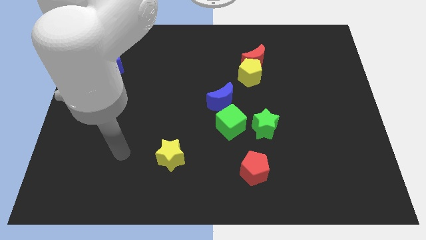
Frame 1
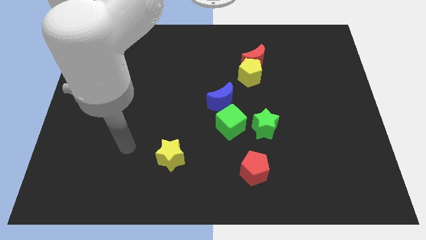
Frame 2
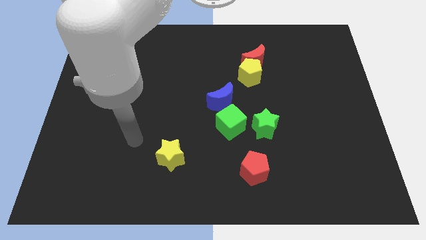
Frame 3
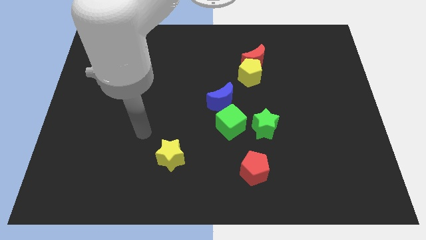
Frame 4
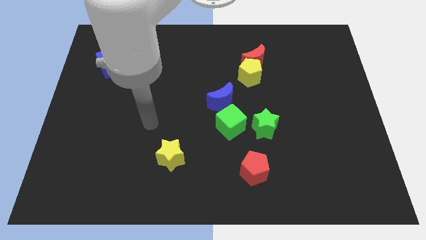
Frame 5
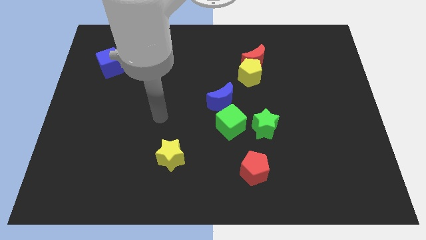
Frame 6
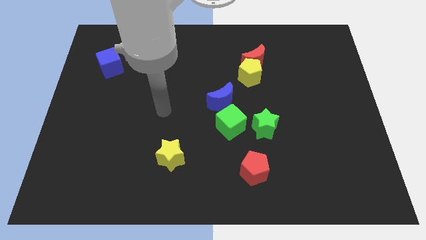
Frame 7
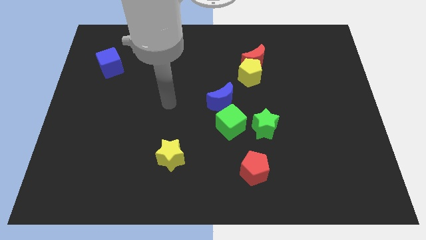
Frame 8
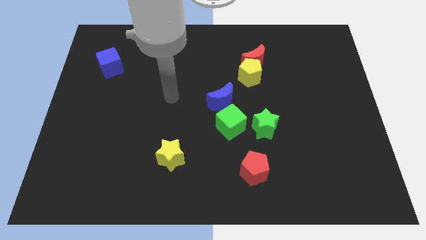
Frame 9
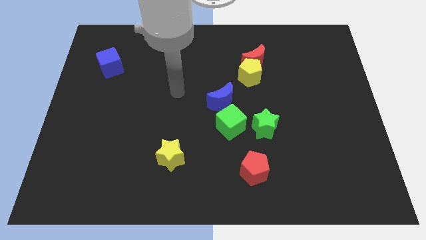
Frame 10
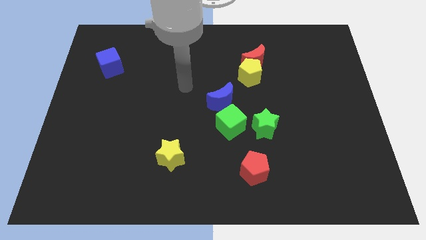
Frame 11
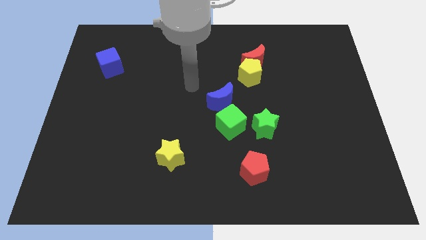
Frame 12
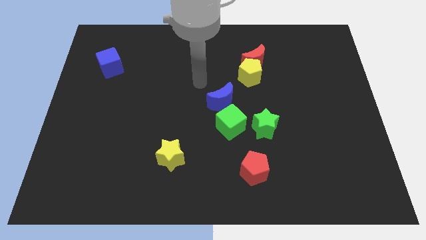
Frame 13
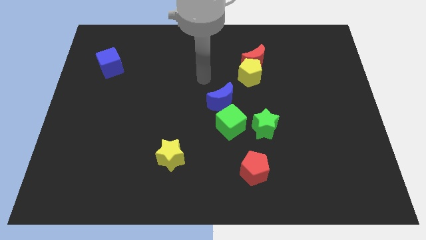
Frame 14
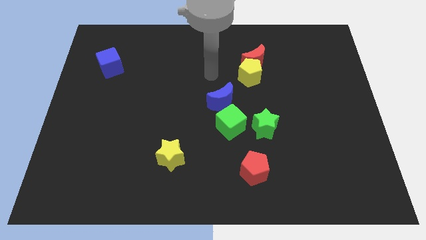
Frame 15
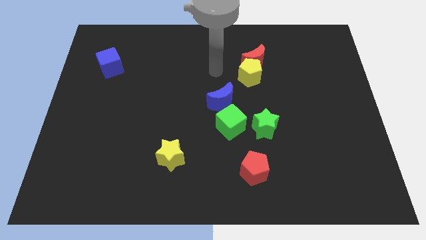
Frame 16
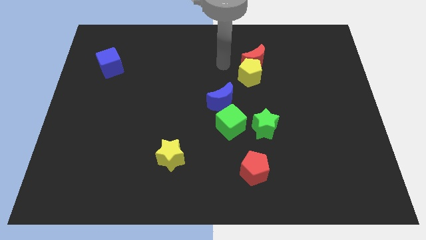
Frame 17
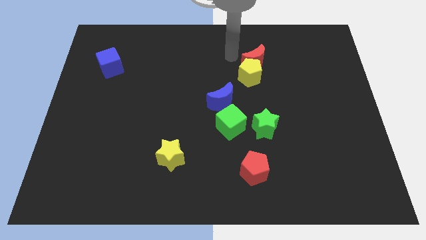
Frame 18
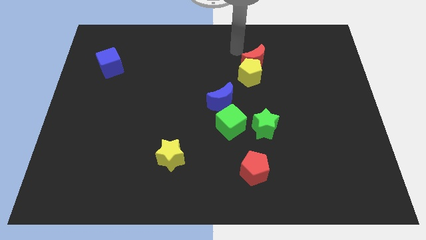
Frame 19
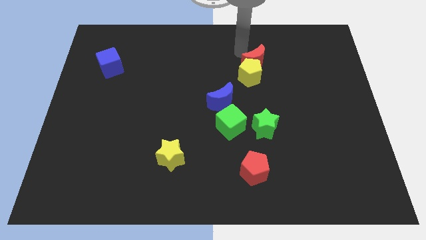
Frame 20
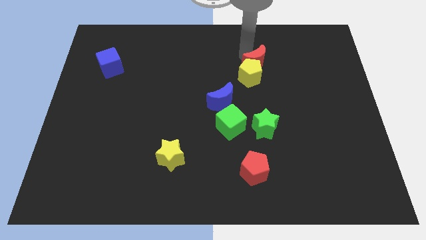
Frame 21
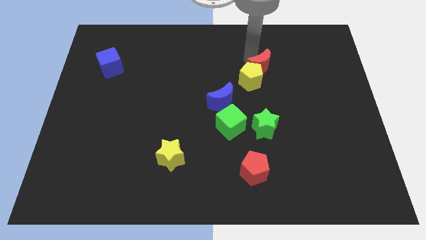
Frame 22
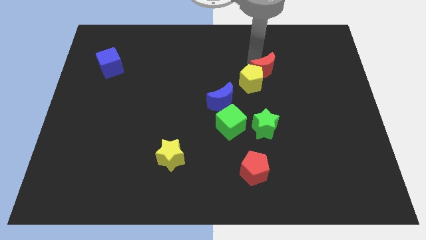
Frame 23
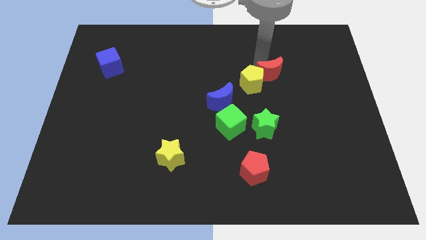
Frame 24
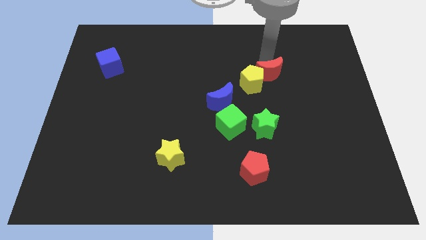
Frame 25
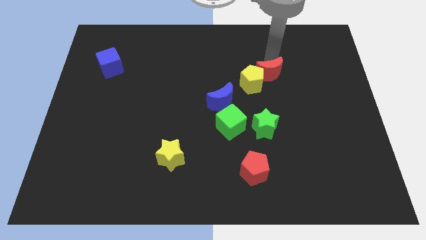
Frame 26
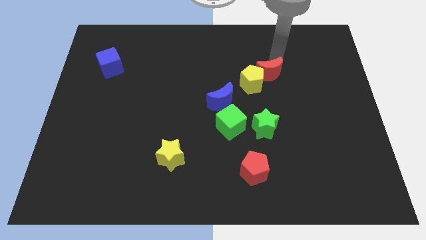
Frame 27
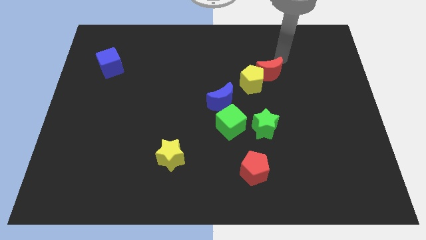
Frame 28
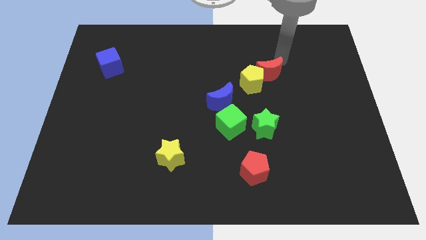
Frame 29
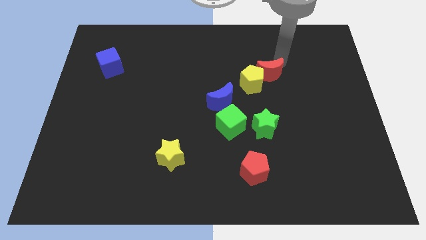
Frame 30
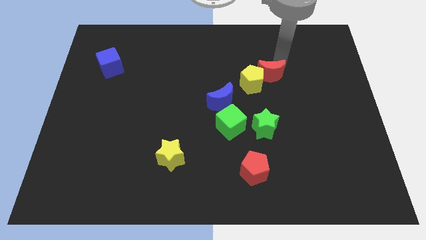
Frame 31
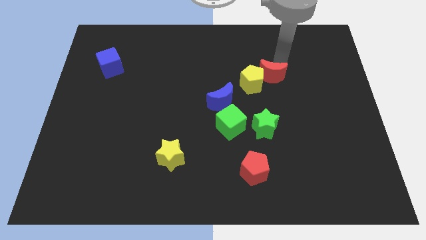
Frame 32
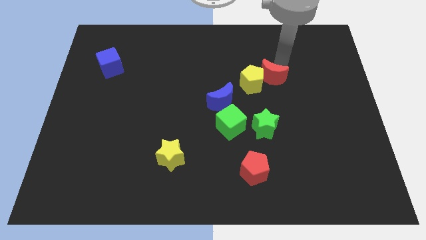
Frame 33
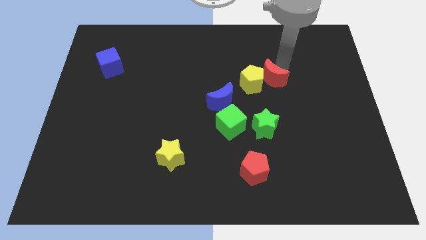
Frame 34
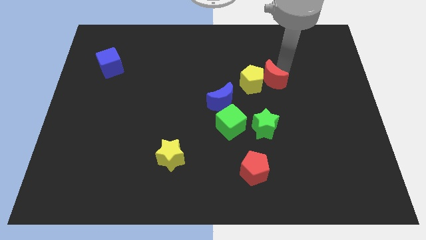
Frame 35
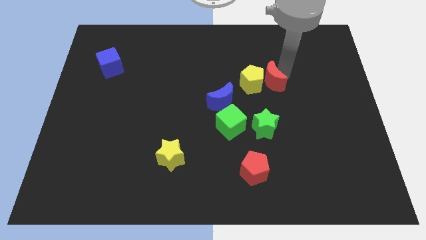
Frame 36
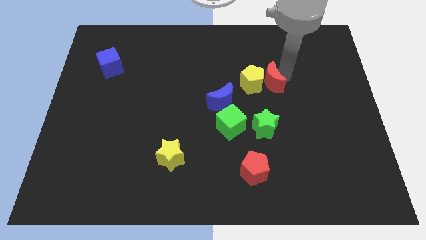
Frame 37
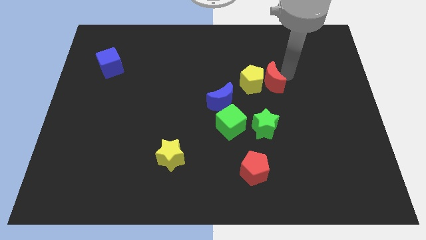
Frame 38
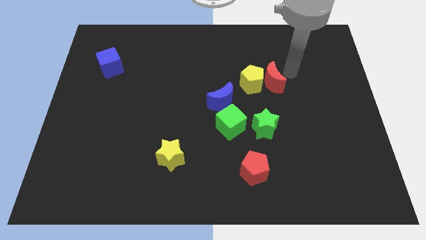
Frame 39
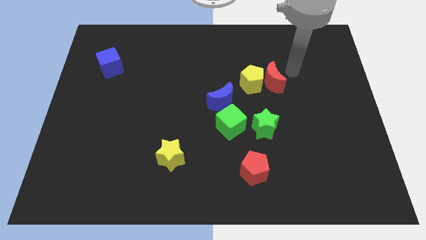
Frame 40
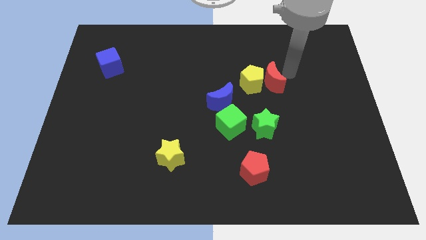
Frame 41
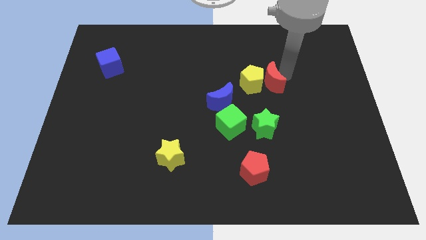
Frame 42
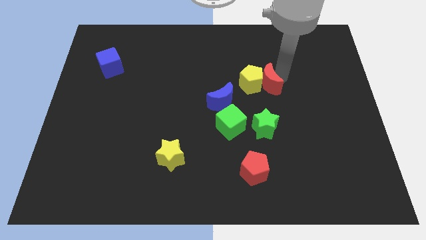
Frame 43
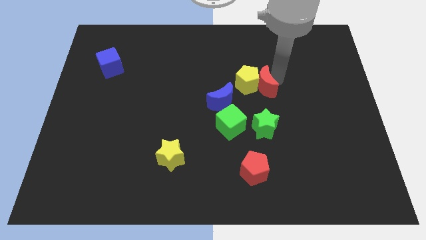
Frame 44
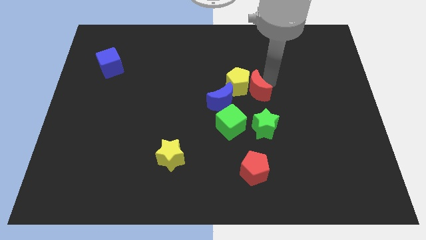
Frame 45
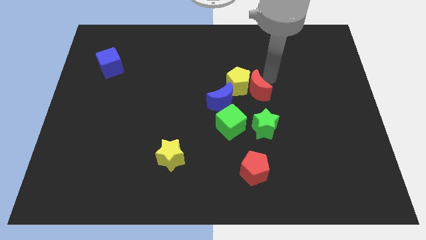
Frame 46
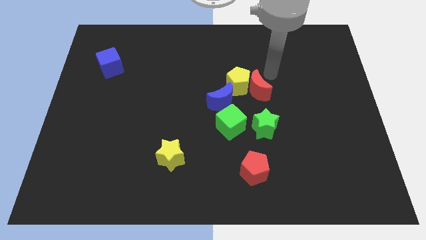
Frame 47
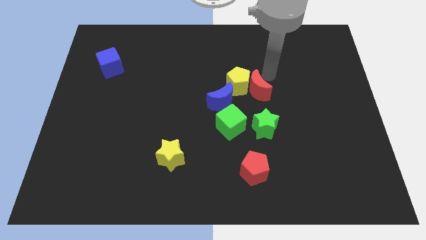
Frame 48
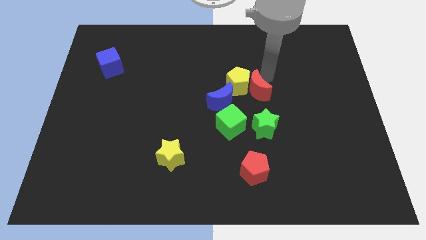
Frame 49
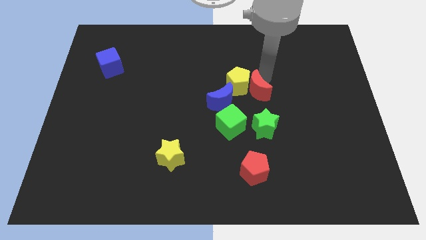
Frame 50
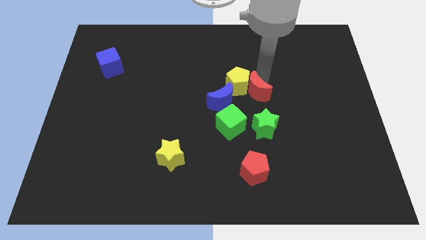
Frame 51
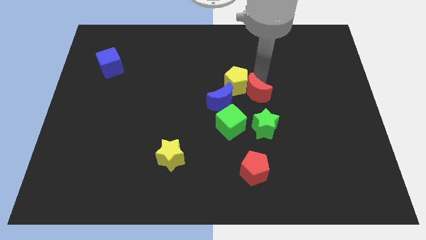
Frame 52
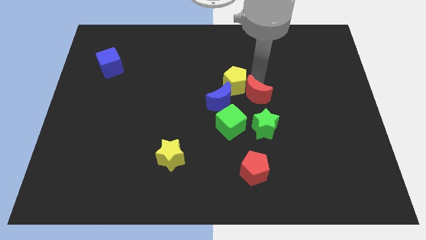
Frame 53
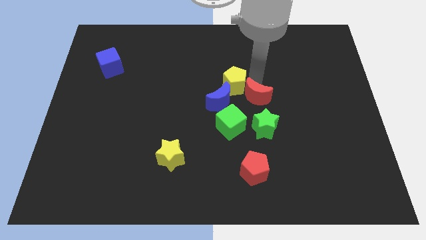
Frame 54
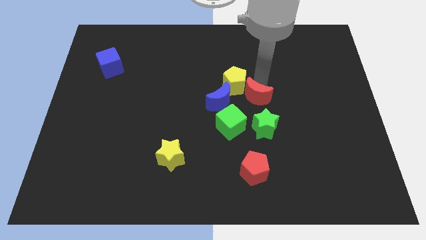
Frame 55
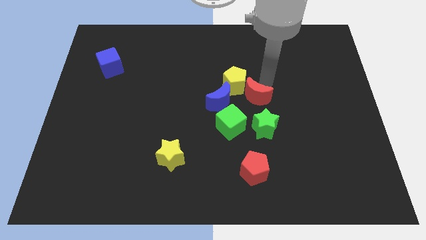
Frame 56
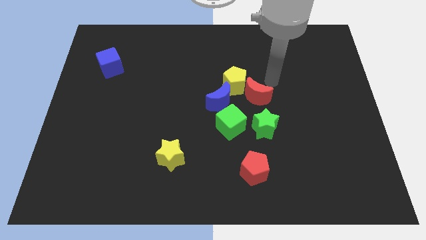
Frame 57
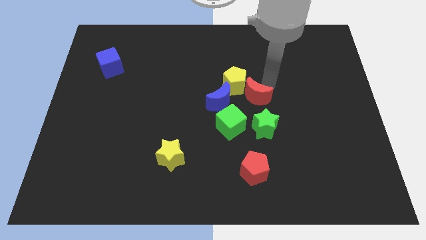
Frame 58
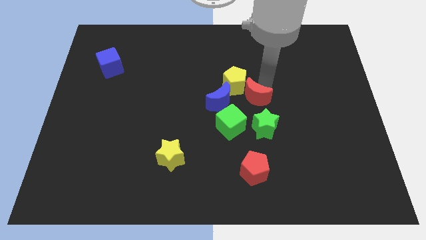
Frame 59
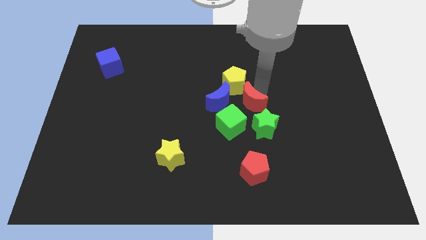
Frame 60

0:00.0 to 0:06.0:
push the red moon diagonally up and to the left of the green star

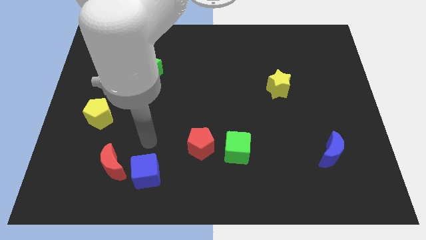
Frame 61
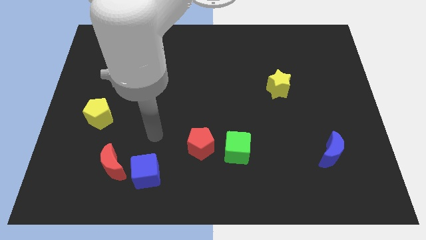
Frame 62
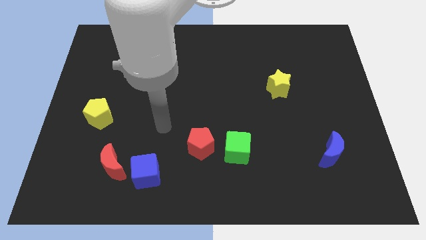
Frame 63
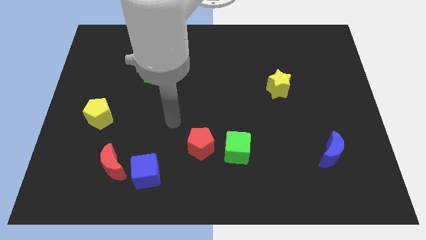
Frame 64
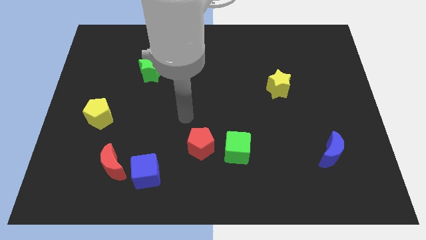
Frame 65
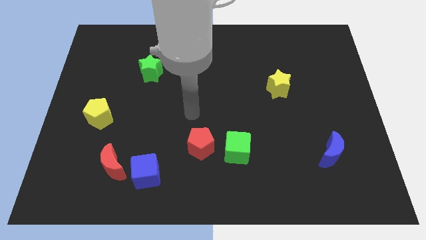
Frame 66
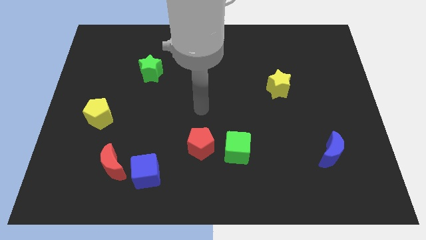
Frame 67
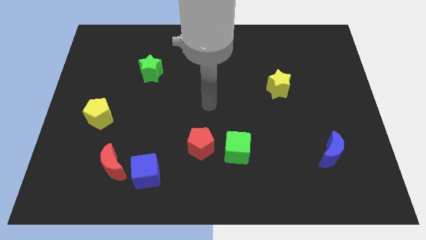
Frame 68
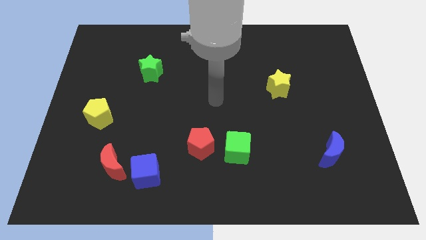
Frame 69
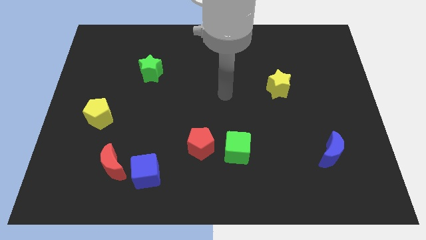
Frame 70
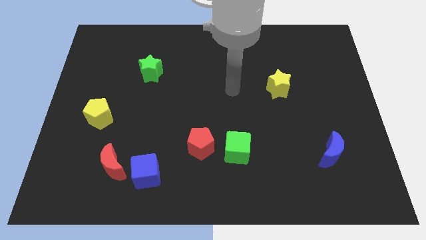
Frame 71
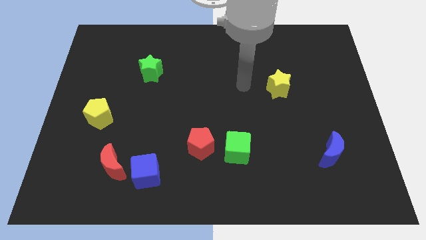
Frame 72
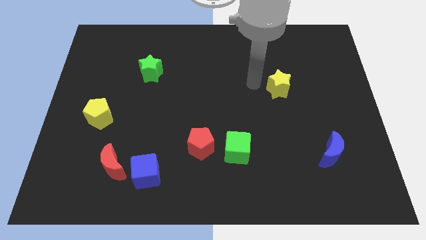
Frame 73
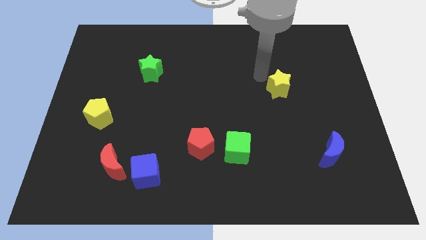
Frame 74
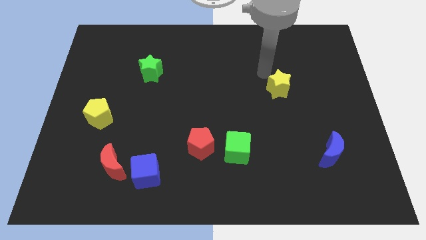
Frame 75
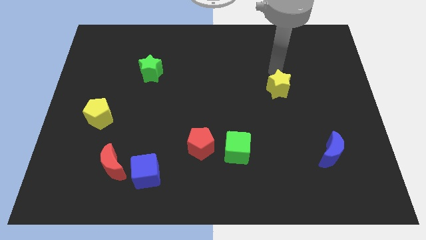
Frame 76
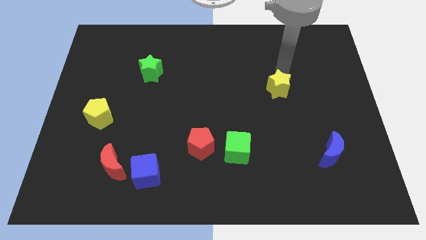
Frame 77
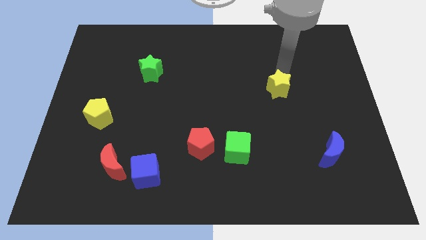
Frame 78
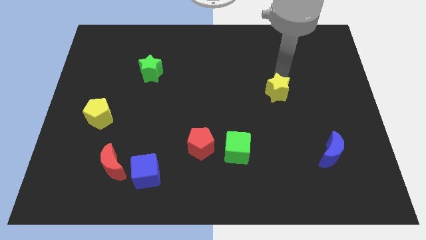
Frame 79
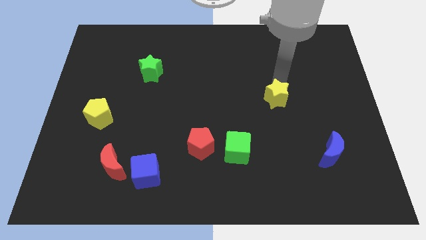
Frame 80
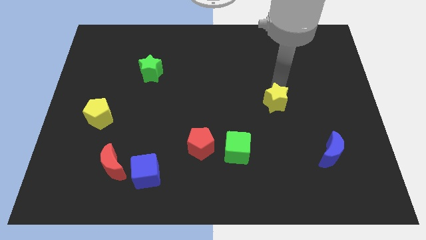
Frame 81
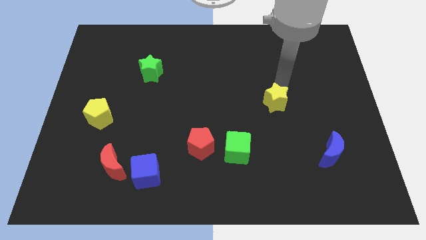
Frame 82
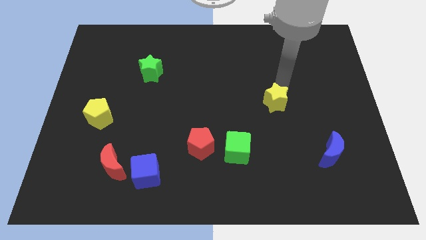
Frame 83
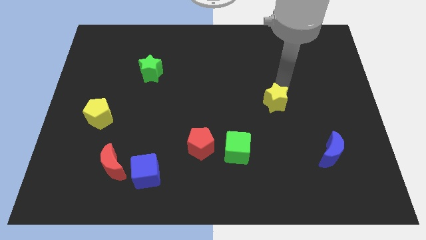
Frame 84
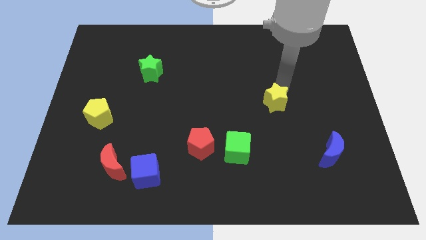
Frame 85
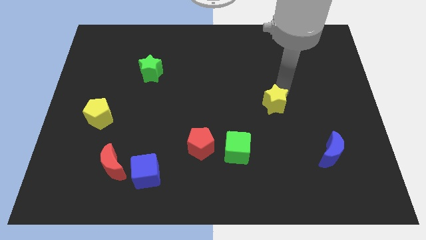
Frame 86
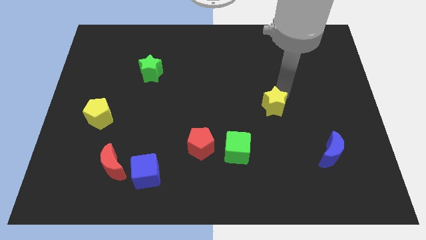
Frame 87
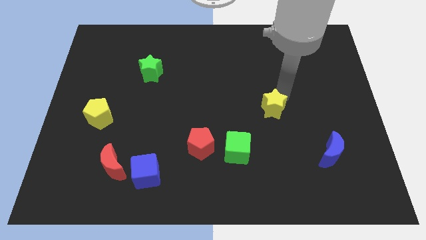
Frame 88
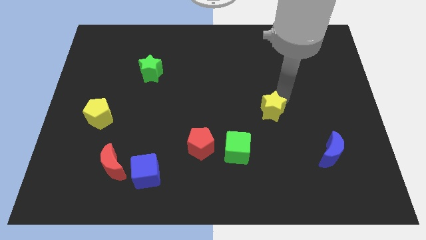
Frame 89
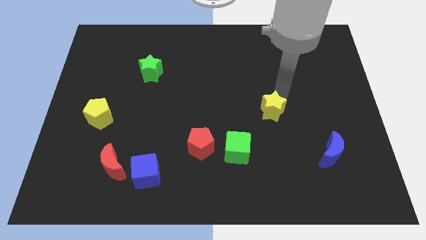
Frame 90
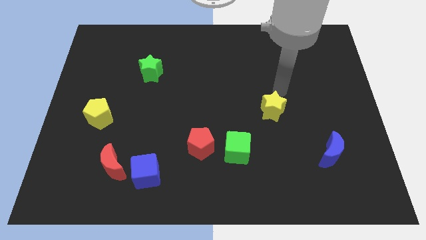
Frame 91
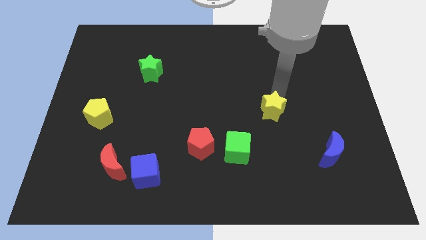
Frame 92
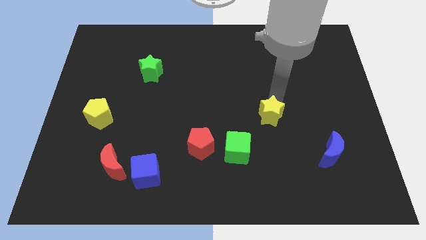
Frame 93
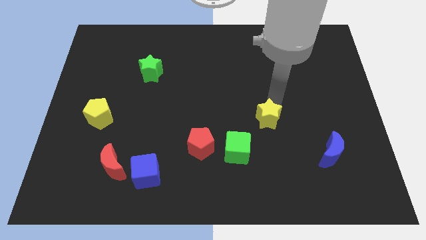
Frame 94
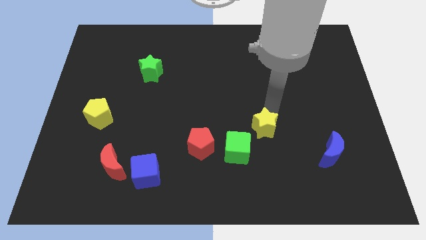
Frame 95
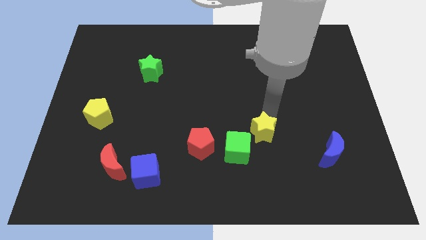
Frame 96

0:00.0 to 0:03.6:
slide the yellow star to the right of the red pentagon
